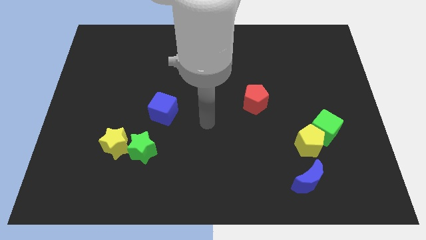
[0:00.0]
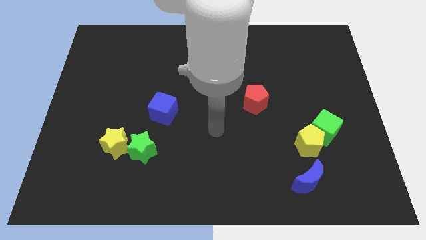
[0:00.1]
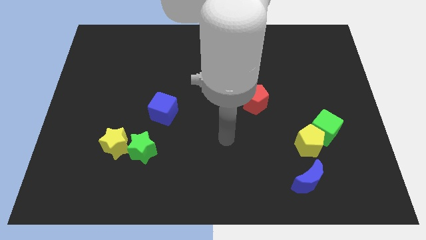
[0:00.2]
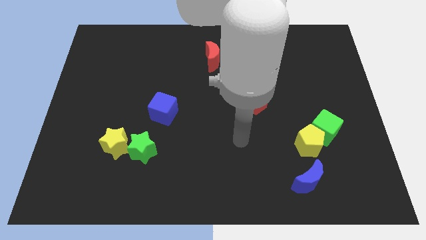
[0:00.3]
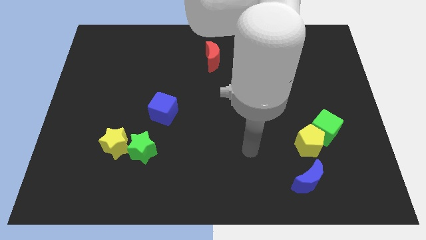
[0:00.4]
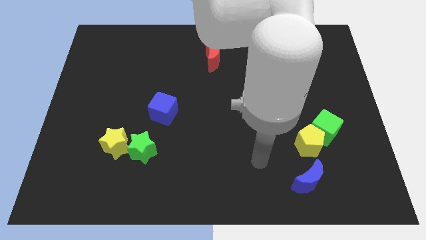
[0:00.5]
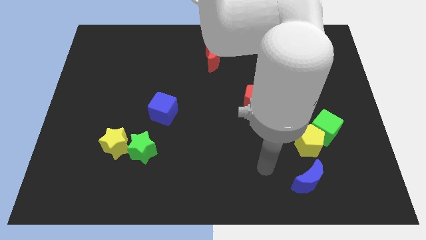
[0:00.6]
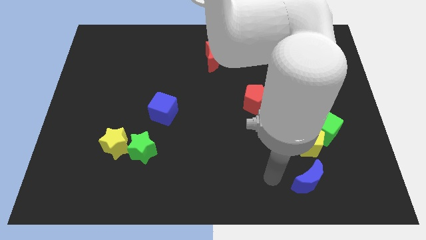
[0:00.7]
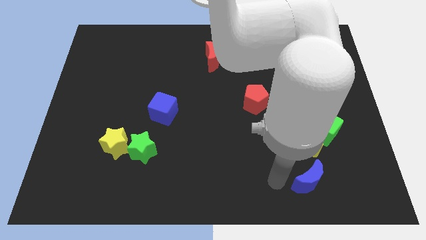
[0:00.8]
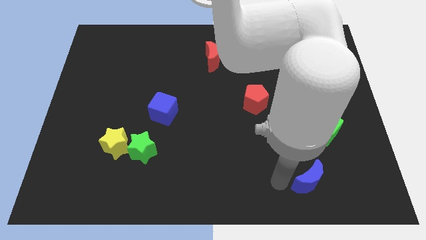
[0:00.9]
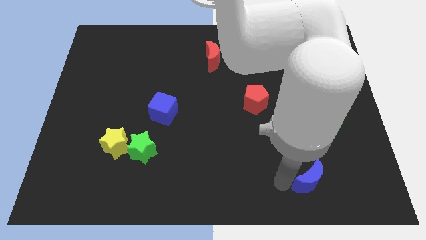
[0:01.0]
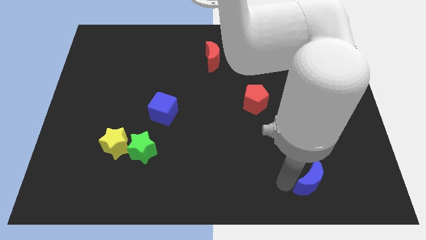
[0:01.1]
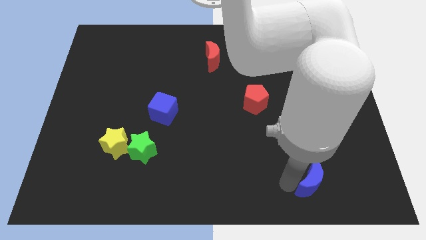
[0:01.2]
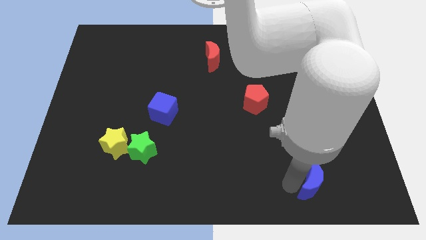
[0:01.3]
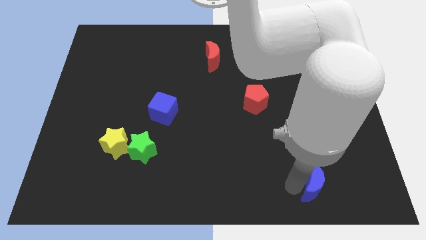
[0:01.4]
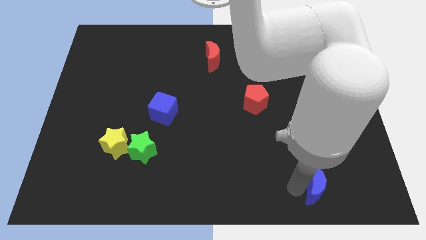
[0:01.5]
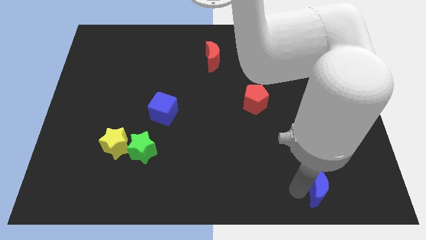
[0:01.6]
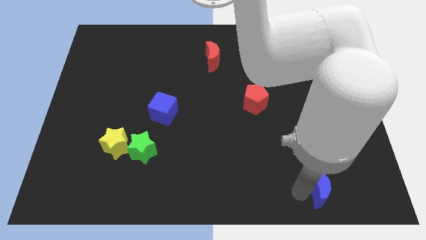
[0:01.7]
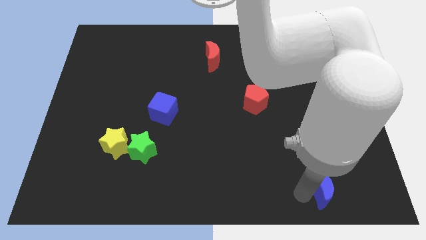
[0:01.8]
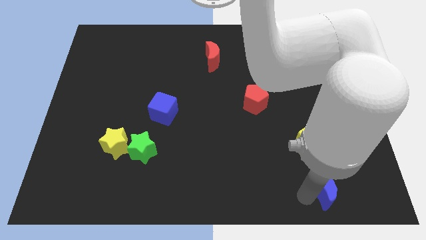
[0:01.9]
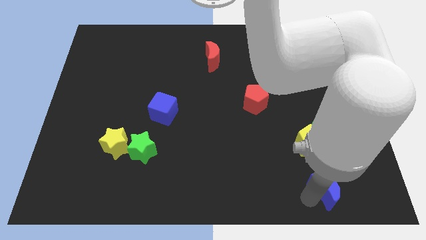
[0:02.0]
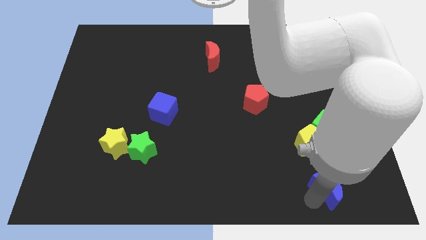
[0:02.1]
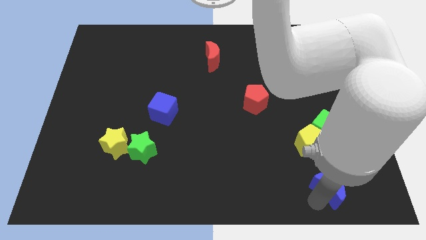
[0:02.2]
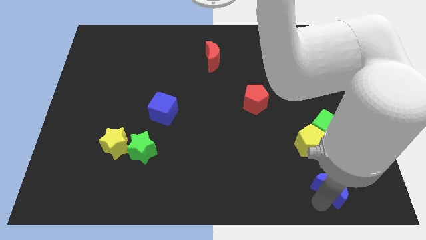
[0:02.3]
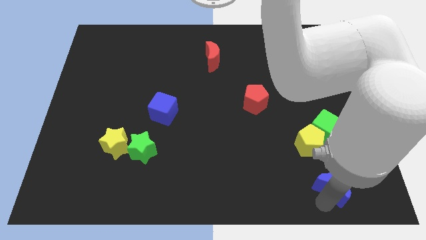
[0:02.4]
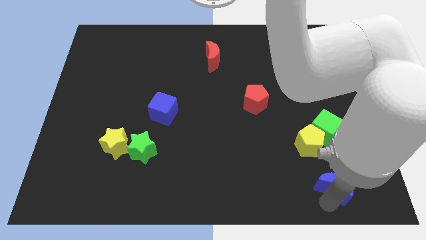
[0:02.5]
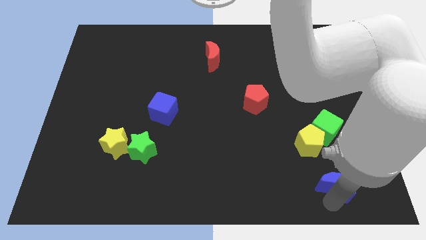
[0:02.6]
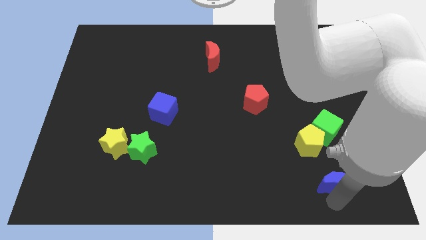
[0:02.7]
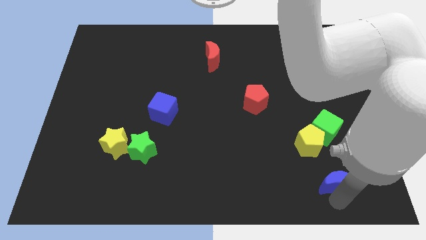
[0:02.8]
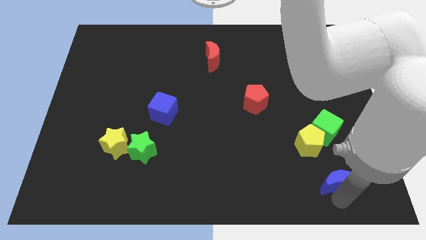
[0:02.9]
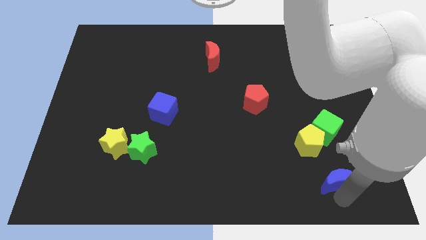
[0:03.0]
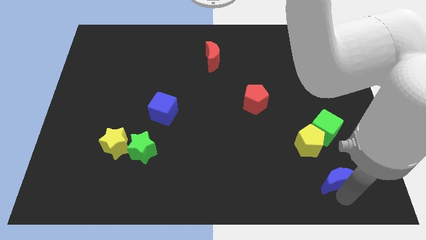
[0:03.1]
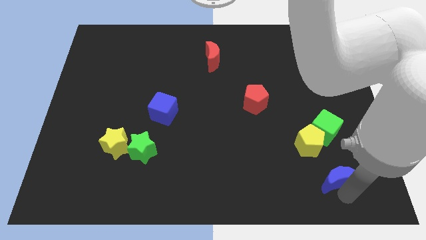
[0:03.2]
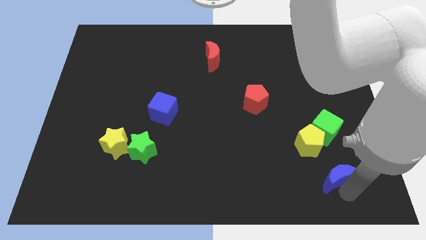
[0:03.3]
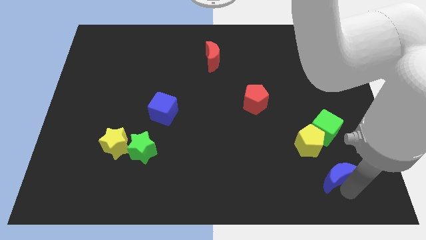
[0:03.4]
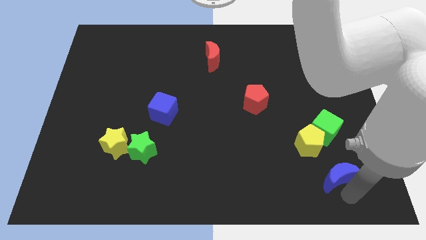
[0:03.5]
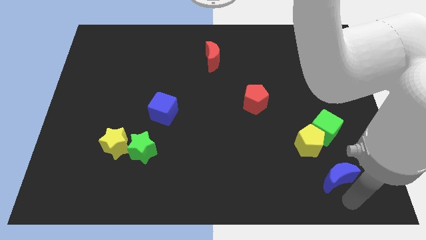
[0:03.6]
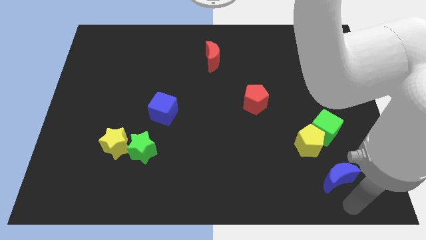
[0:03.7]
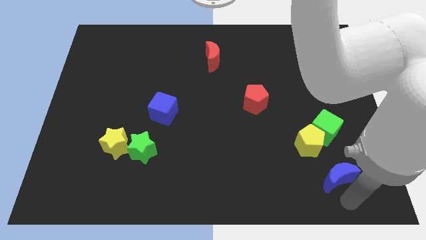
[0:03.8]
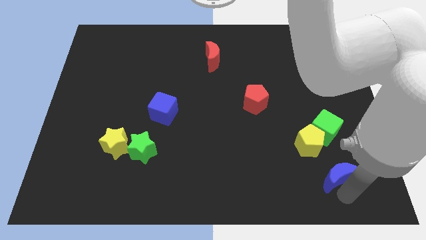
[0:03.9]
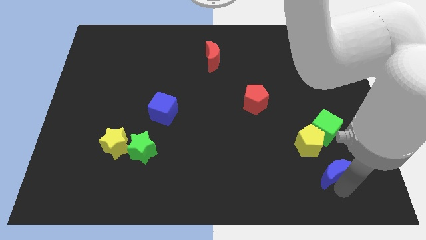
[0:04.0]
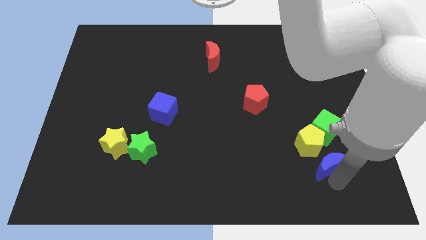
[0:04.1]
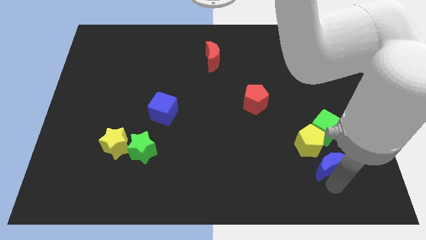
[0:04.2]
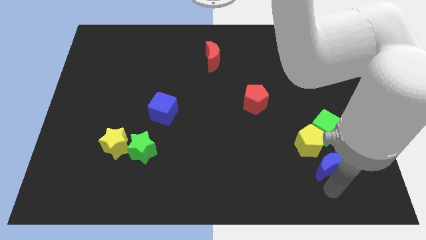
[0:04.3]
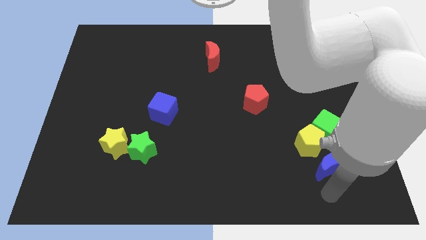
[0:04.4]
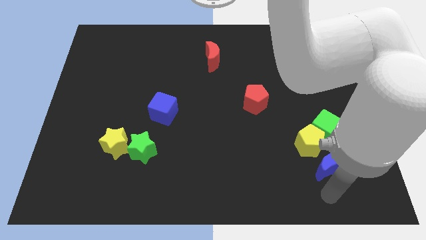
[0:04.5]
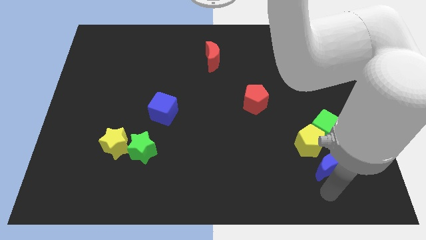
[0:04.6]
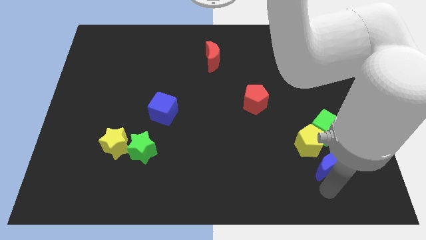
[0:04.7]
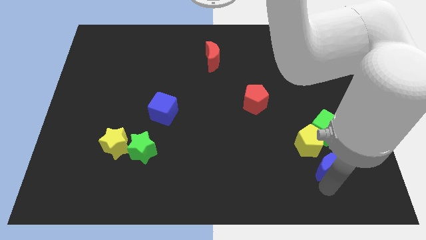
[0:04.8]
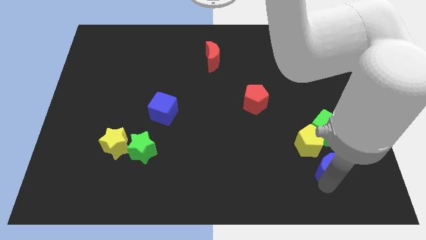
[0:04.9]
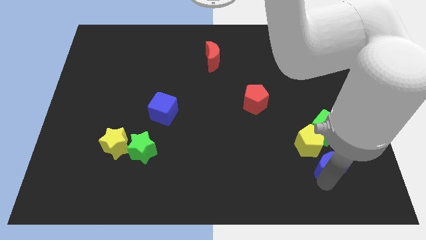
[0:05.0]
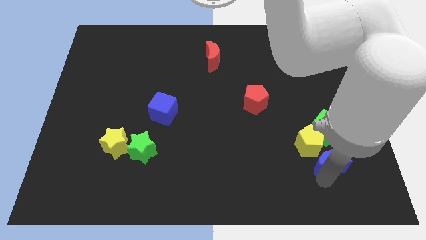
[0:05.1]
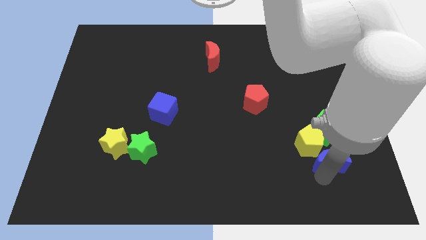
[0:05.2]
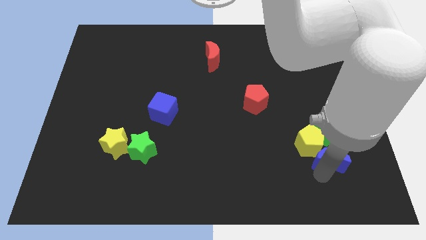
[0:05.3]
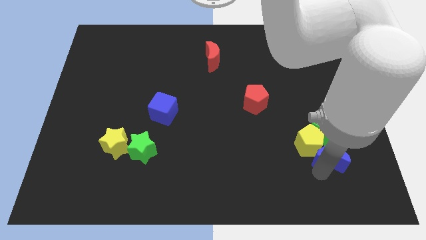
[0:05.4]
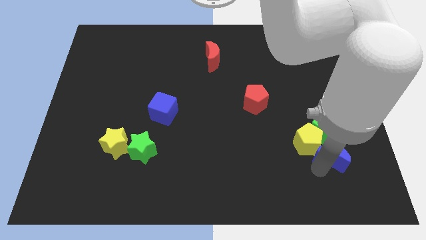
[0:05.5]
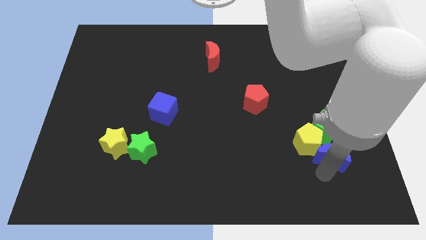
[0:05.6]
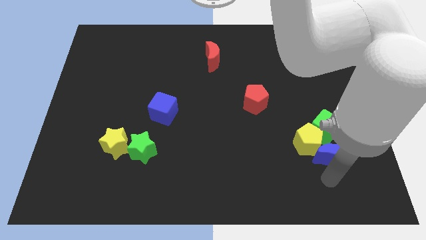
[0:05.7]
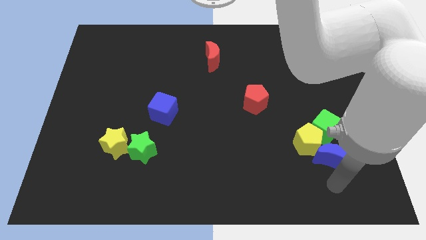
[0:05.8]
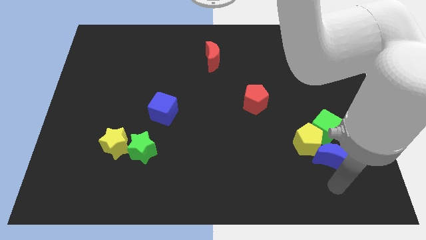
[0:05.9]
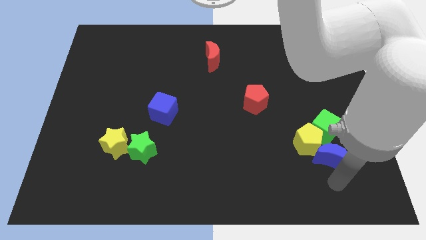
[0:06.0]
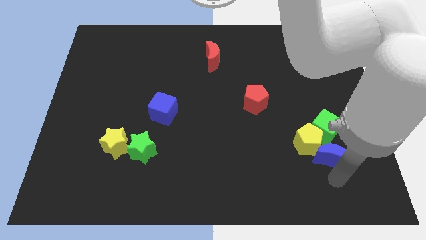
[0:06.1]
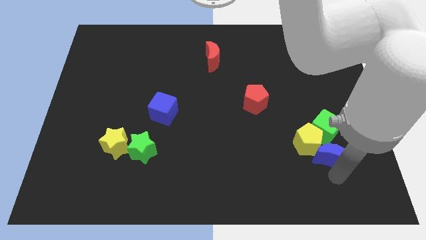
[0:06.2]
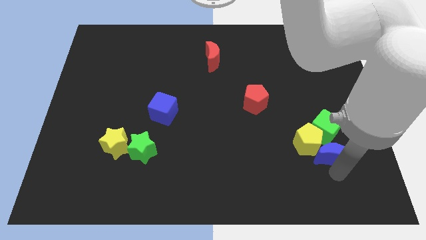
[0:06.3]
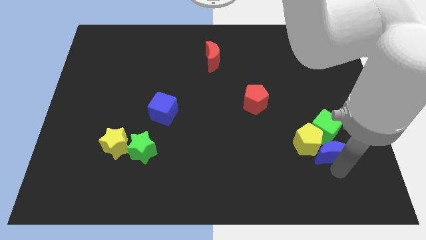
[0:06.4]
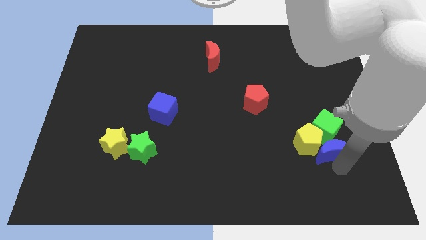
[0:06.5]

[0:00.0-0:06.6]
move the blue moon to the green cube

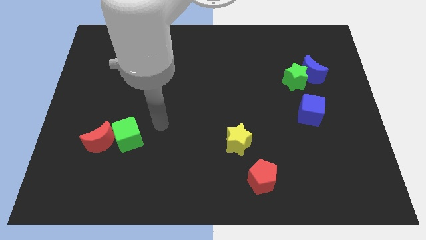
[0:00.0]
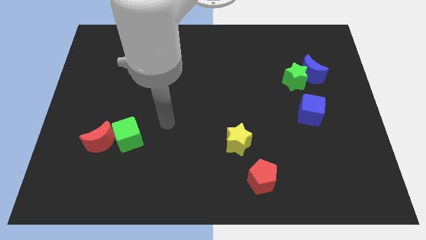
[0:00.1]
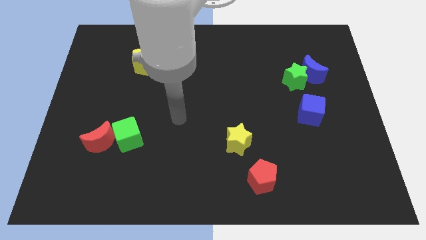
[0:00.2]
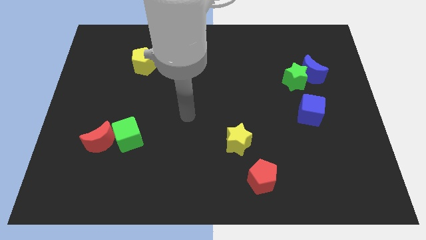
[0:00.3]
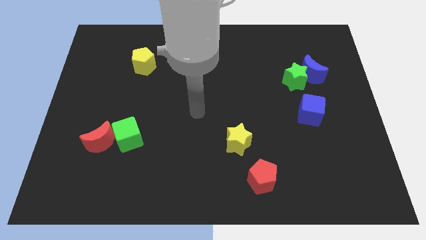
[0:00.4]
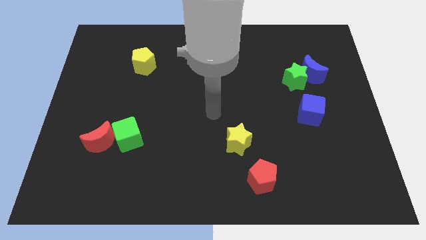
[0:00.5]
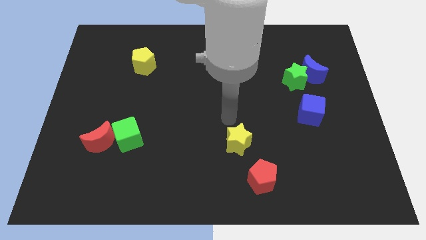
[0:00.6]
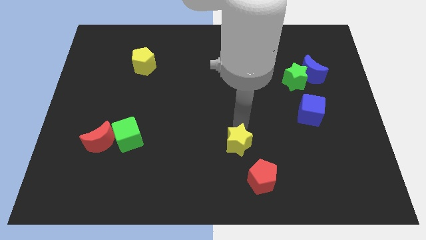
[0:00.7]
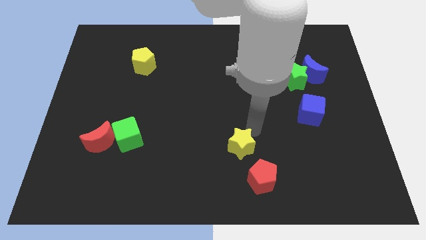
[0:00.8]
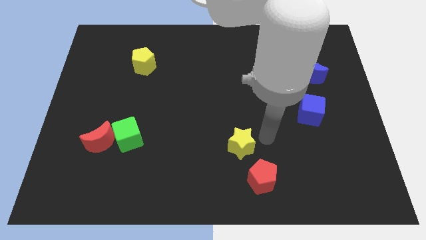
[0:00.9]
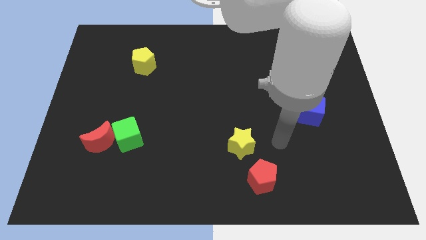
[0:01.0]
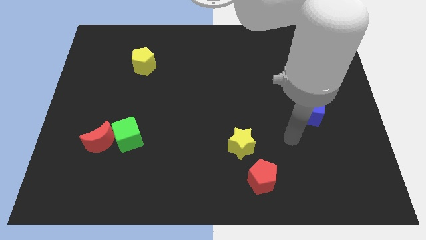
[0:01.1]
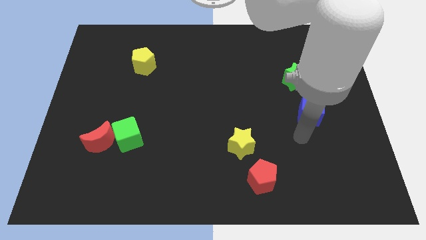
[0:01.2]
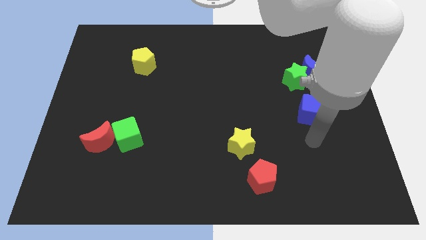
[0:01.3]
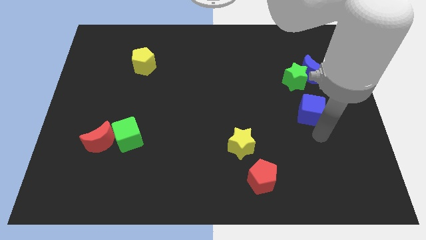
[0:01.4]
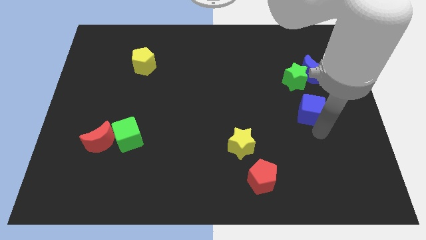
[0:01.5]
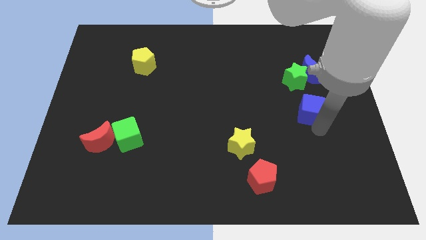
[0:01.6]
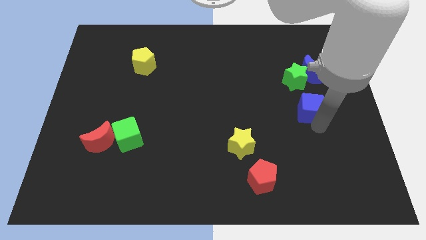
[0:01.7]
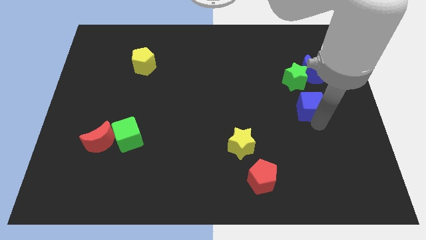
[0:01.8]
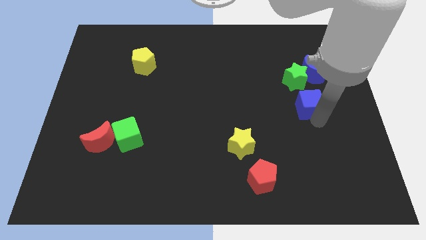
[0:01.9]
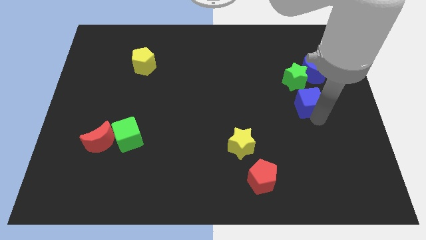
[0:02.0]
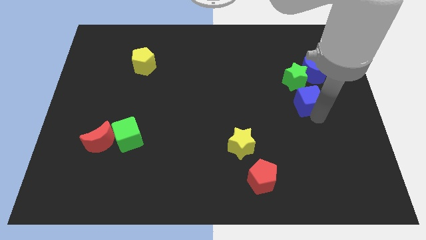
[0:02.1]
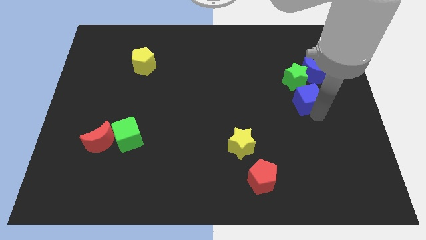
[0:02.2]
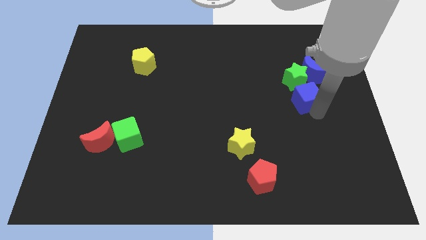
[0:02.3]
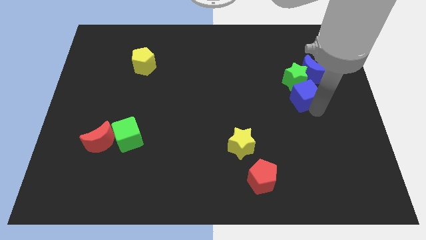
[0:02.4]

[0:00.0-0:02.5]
push the blue cube next to the green star
